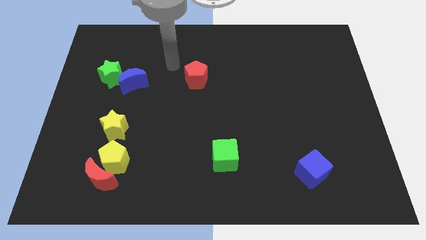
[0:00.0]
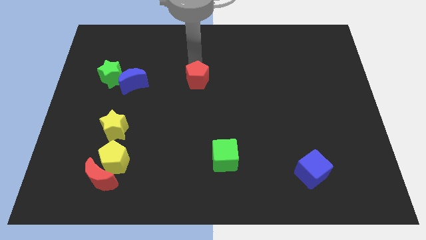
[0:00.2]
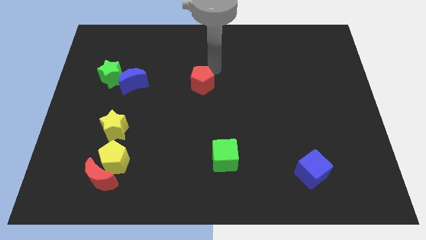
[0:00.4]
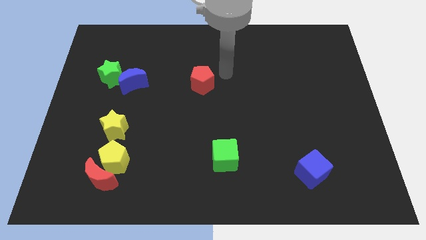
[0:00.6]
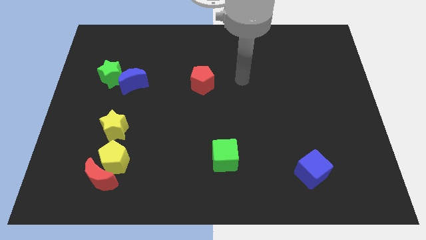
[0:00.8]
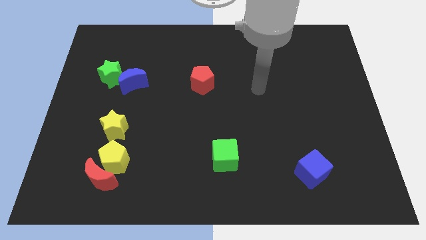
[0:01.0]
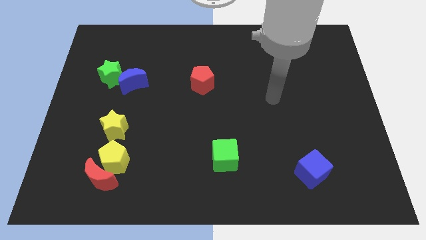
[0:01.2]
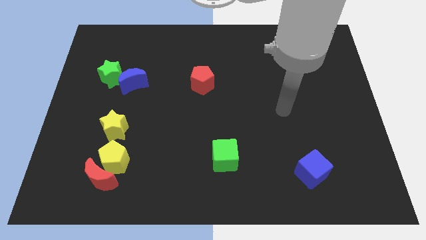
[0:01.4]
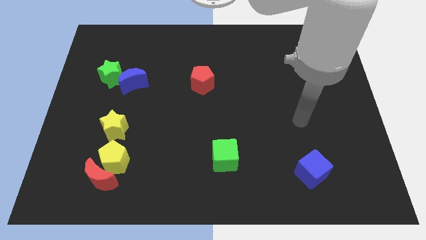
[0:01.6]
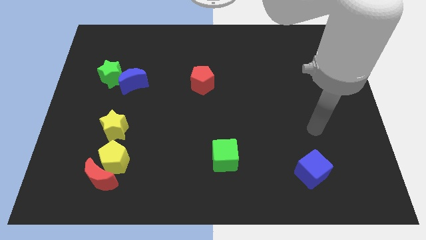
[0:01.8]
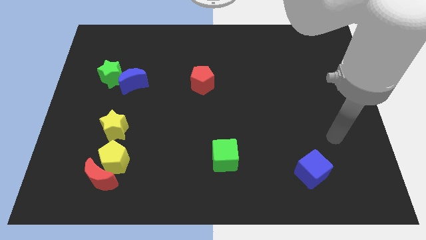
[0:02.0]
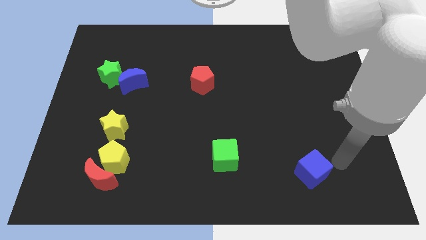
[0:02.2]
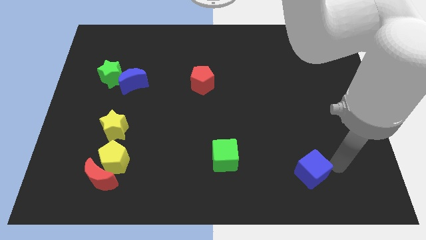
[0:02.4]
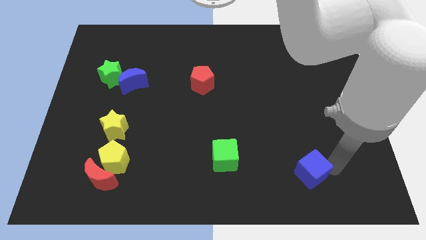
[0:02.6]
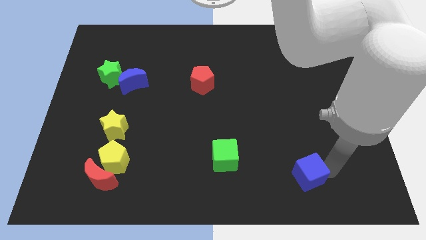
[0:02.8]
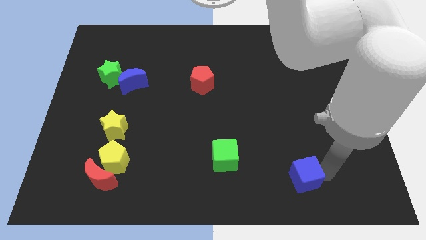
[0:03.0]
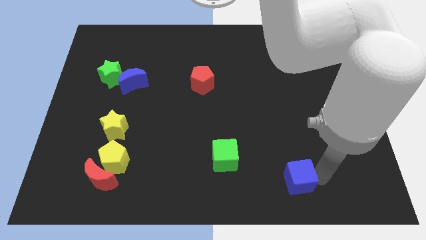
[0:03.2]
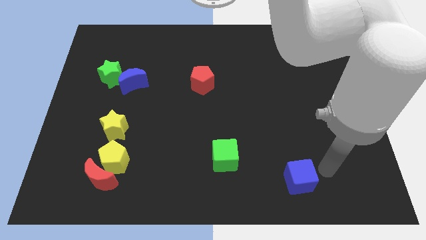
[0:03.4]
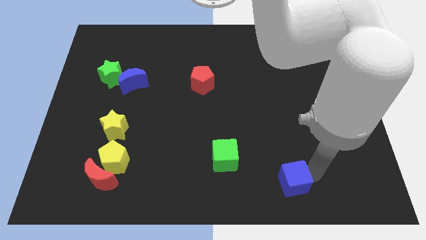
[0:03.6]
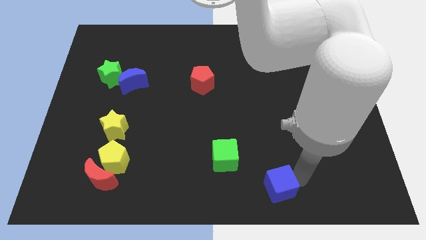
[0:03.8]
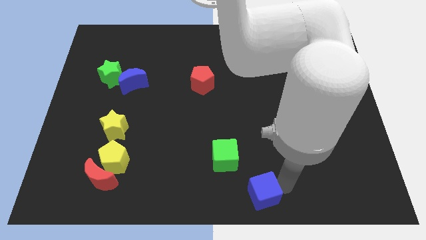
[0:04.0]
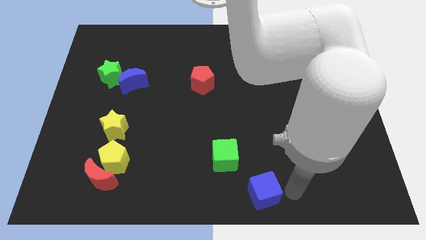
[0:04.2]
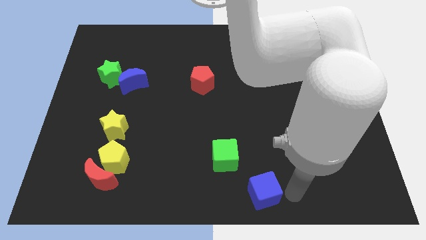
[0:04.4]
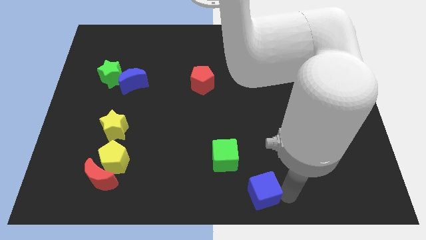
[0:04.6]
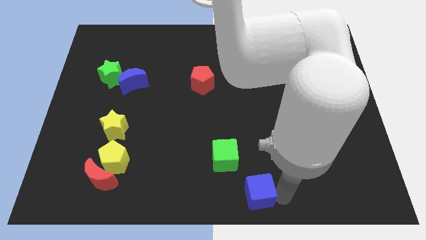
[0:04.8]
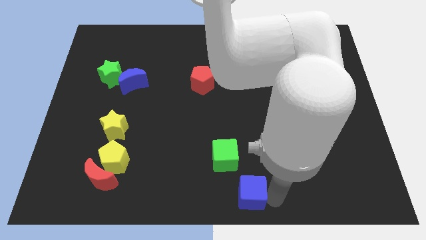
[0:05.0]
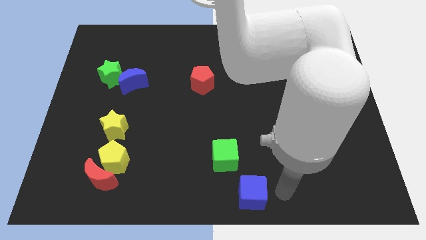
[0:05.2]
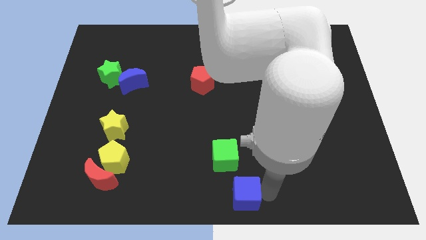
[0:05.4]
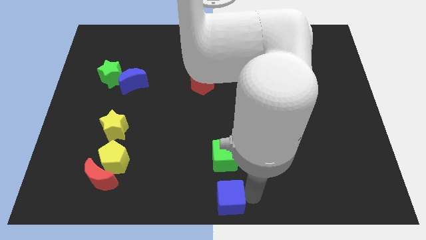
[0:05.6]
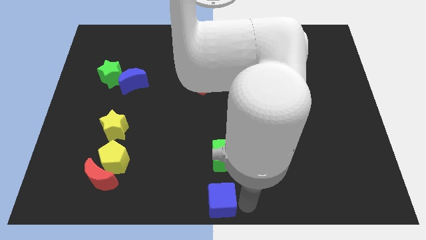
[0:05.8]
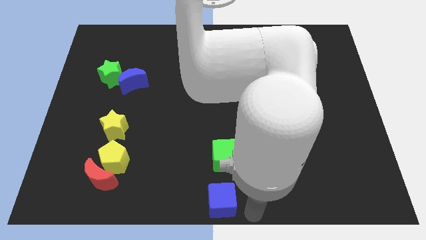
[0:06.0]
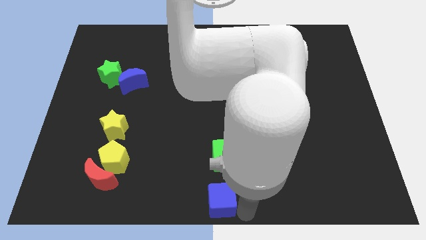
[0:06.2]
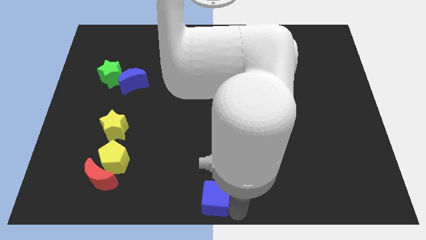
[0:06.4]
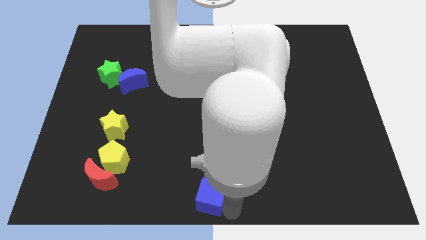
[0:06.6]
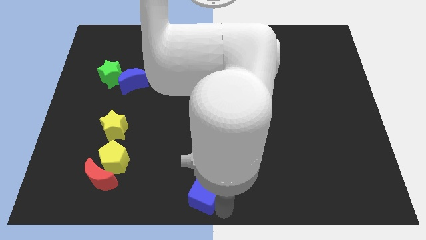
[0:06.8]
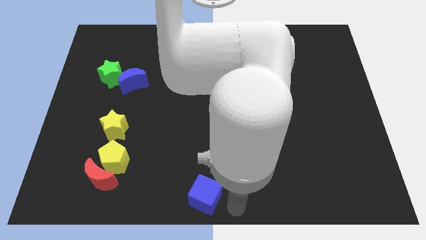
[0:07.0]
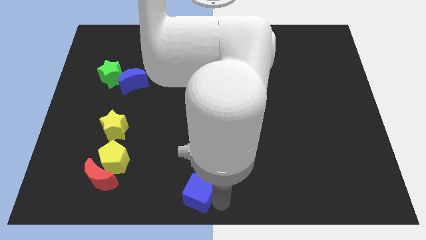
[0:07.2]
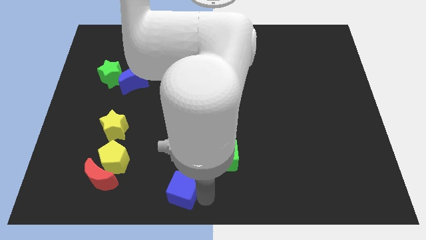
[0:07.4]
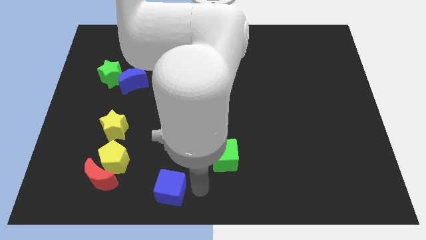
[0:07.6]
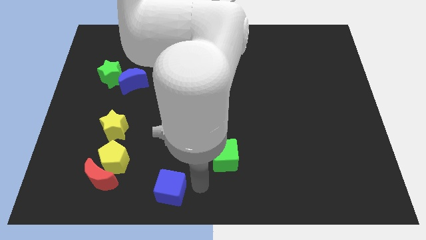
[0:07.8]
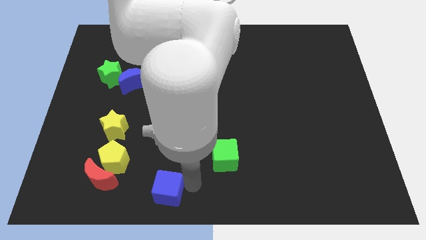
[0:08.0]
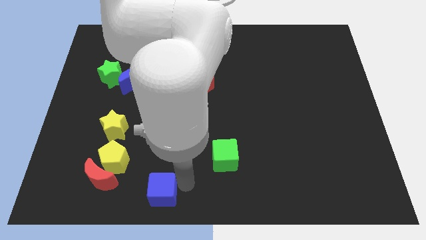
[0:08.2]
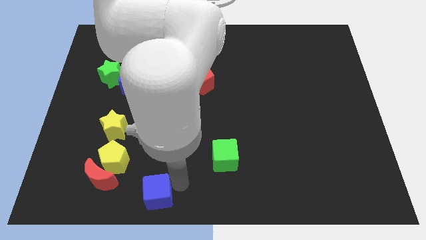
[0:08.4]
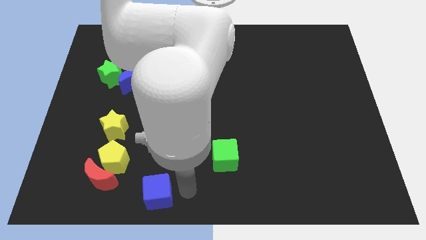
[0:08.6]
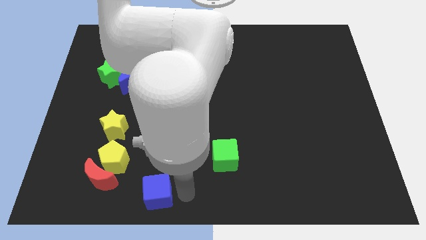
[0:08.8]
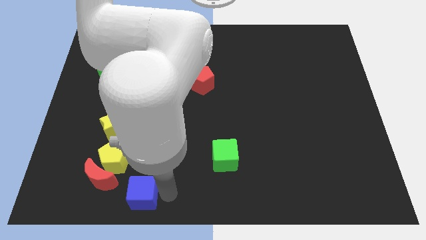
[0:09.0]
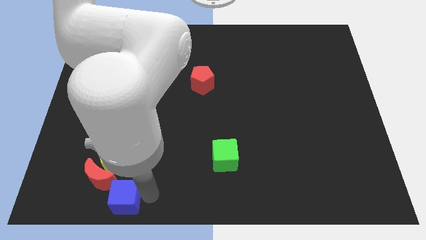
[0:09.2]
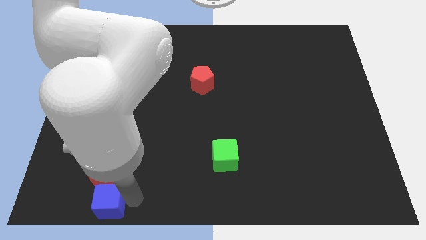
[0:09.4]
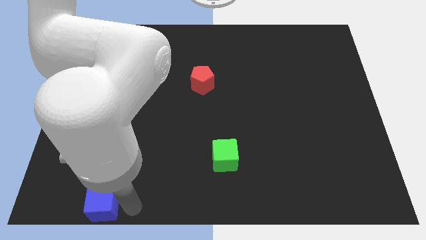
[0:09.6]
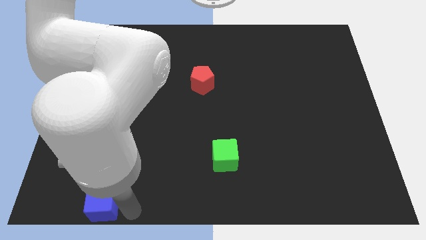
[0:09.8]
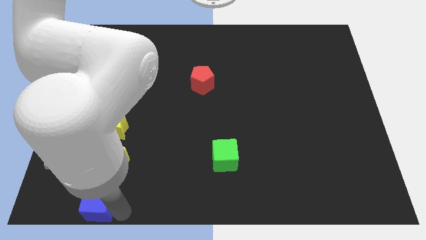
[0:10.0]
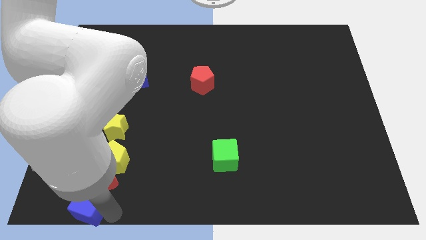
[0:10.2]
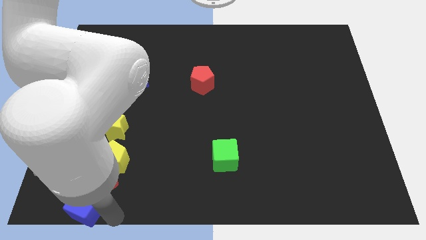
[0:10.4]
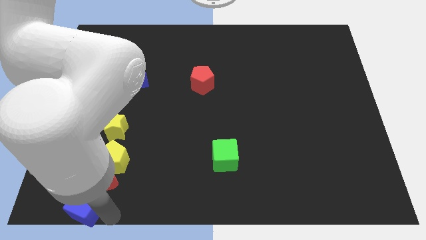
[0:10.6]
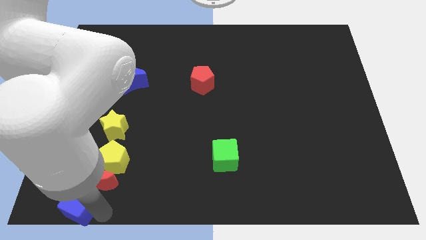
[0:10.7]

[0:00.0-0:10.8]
move the blue cube to the bottom left of the yellow pentagon

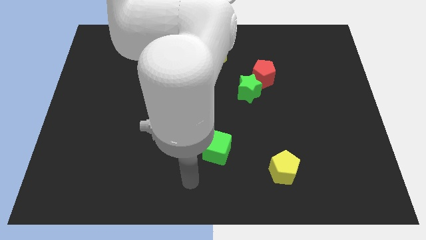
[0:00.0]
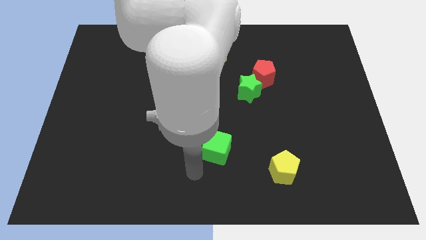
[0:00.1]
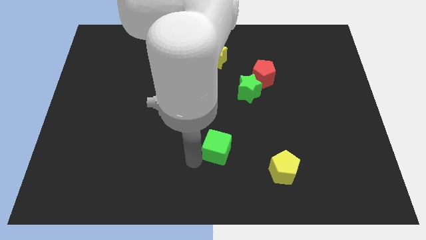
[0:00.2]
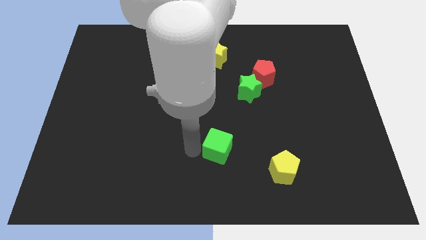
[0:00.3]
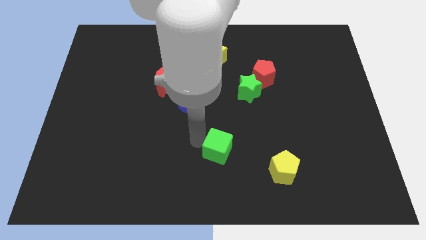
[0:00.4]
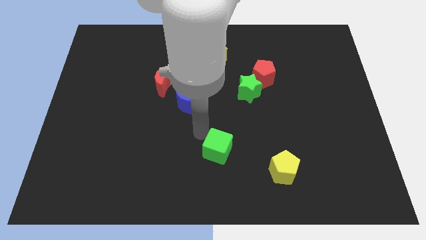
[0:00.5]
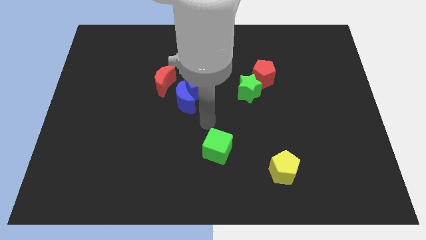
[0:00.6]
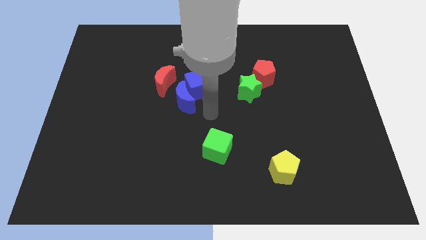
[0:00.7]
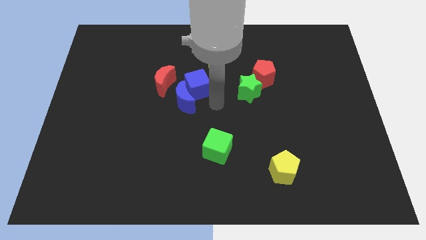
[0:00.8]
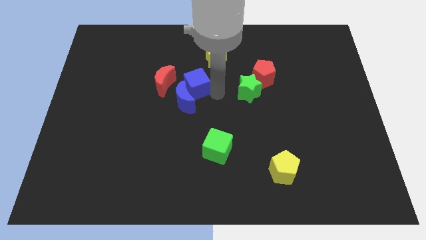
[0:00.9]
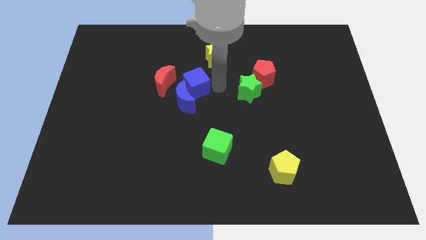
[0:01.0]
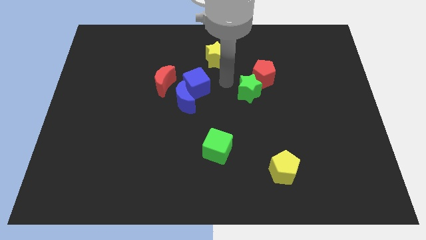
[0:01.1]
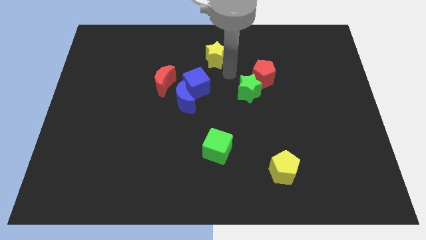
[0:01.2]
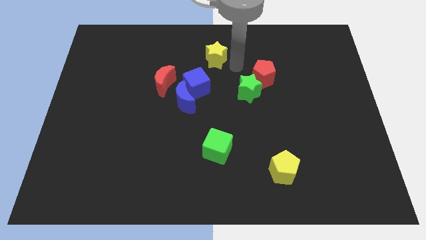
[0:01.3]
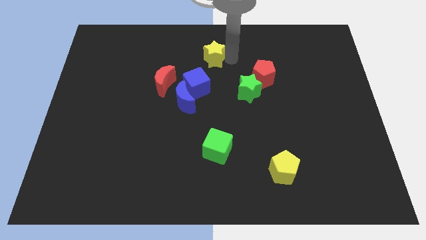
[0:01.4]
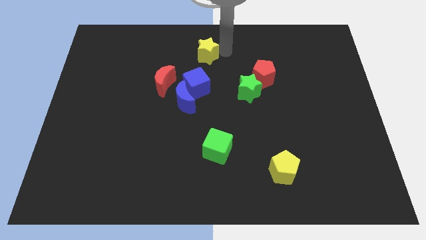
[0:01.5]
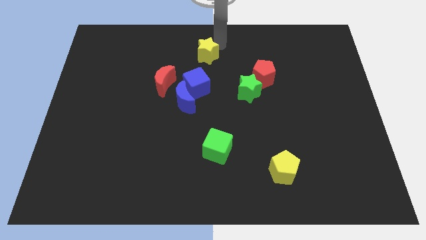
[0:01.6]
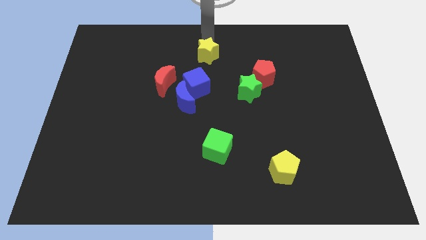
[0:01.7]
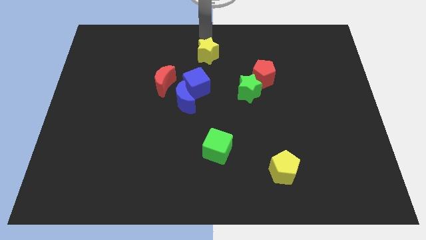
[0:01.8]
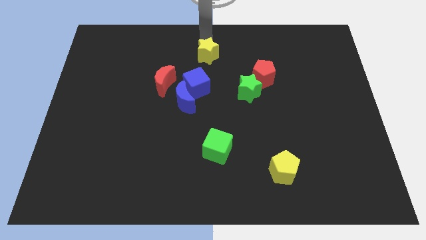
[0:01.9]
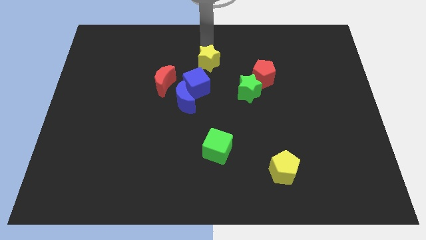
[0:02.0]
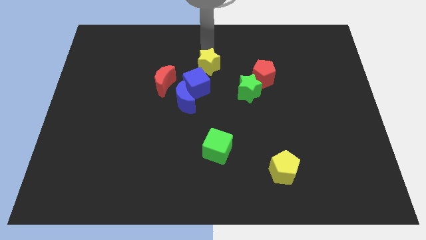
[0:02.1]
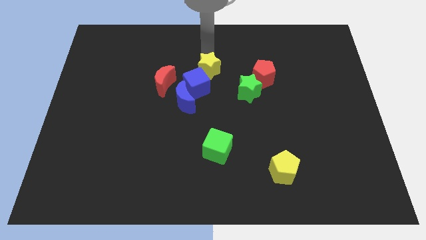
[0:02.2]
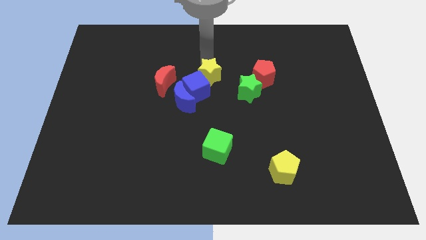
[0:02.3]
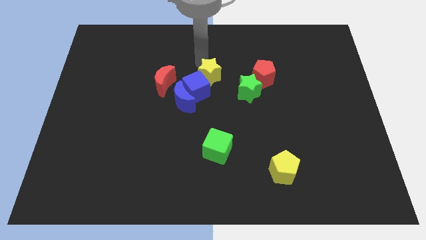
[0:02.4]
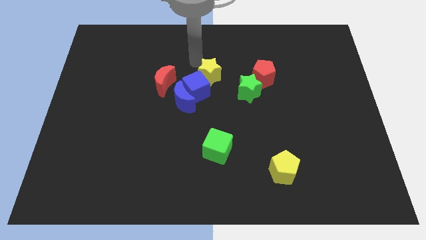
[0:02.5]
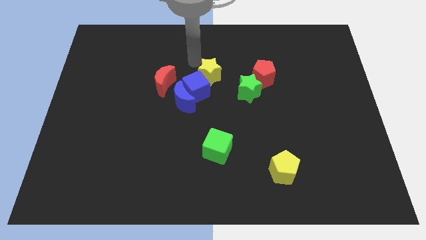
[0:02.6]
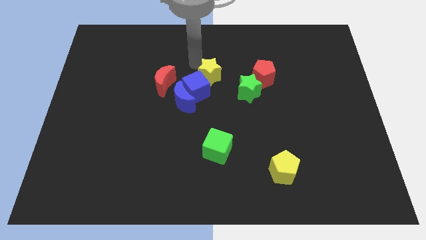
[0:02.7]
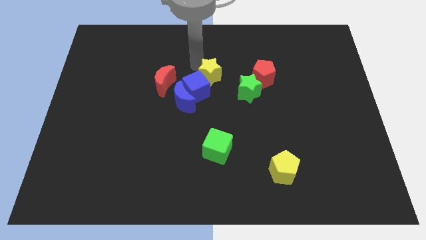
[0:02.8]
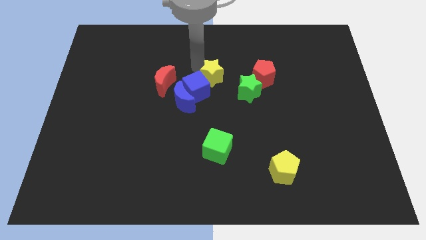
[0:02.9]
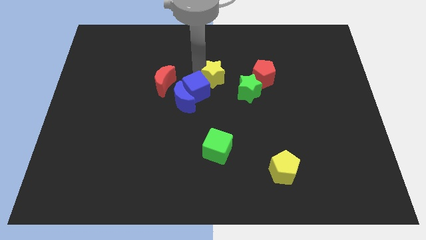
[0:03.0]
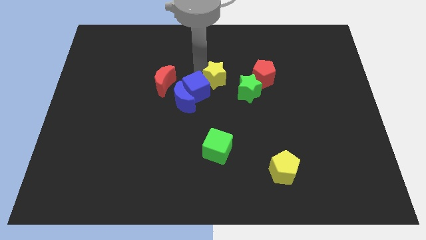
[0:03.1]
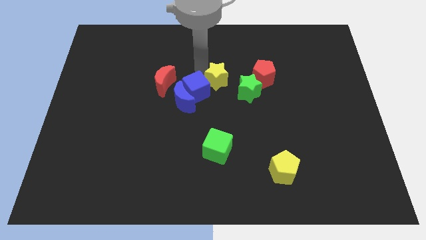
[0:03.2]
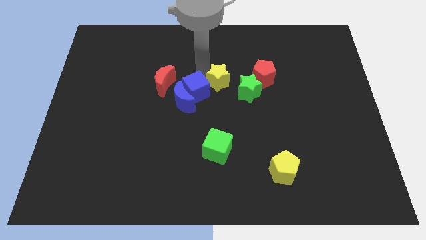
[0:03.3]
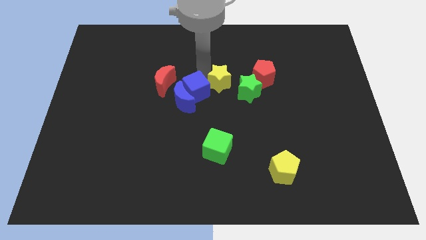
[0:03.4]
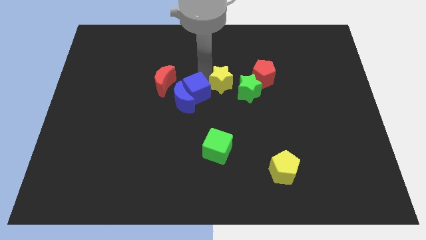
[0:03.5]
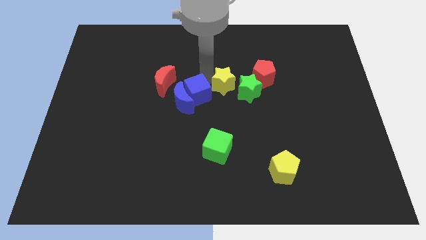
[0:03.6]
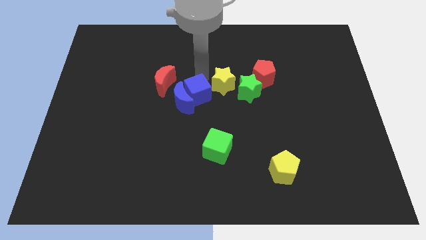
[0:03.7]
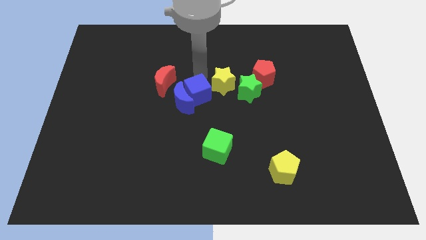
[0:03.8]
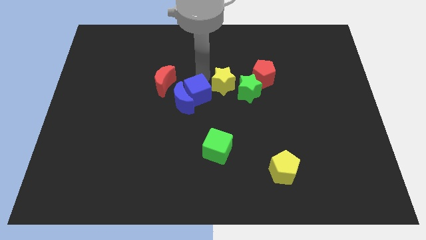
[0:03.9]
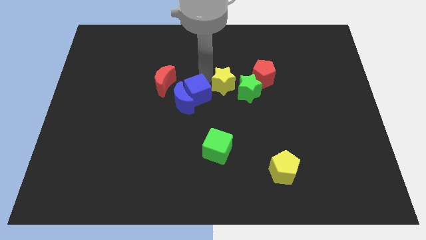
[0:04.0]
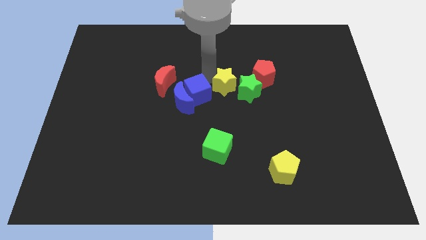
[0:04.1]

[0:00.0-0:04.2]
move the yellow star diagonally down and to the left of the red pentagon
